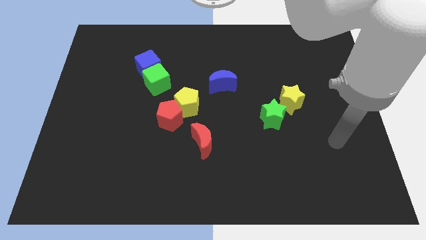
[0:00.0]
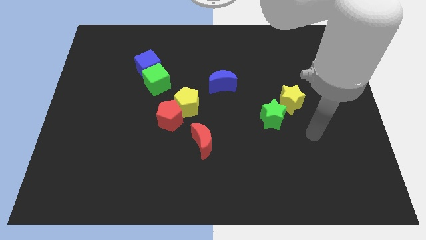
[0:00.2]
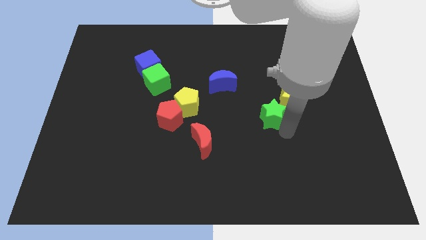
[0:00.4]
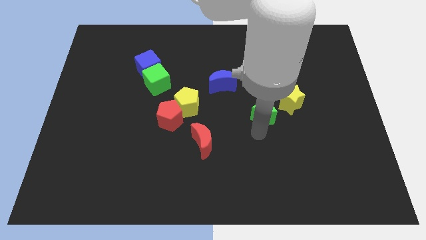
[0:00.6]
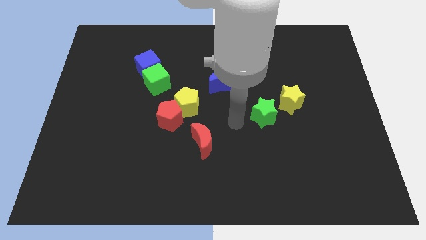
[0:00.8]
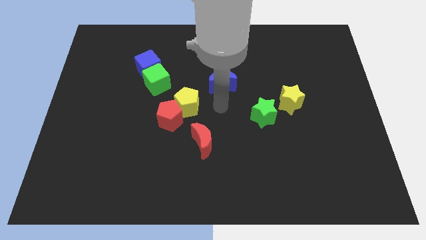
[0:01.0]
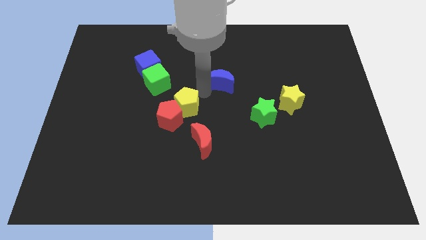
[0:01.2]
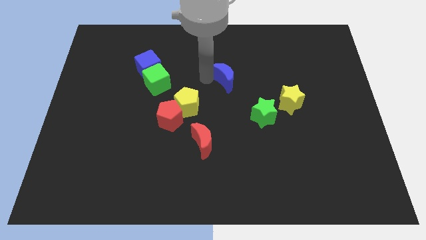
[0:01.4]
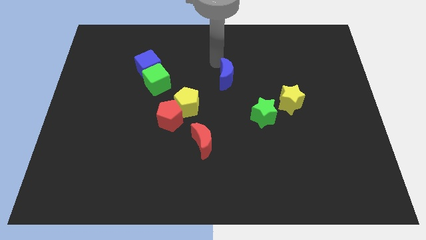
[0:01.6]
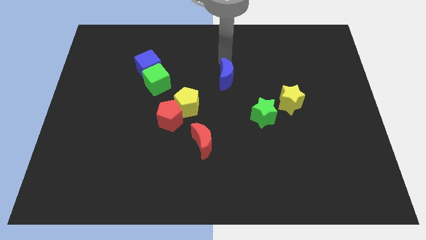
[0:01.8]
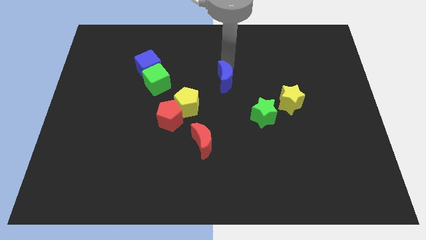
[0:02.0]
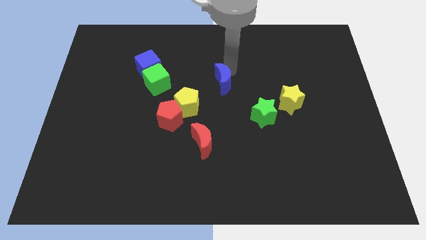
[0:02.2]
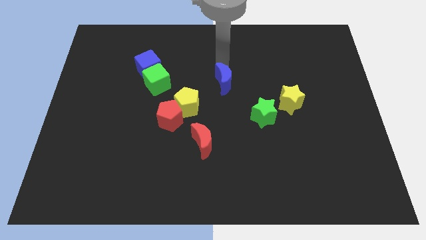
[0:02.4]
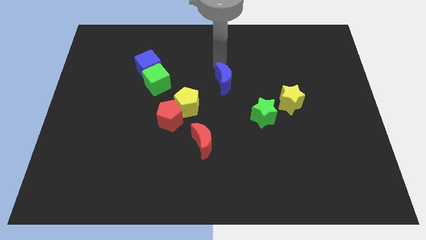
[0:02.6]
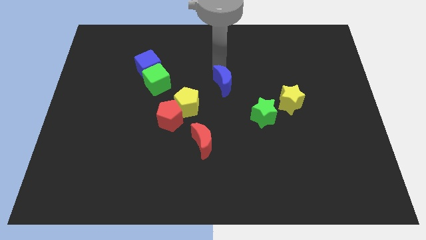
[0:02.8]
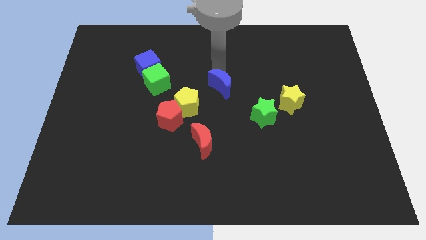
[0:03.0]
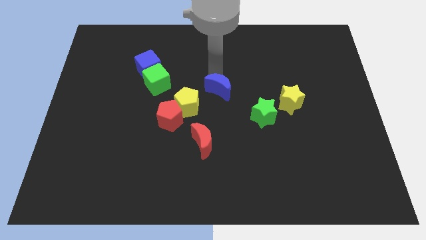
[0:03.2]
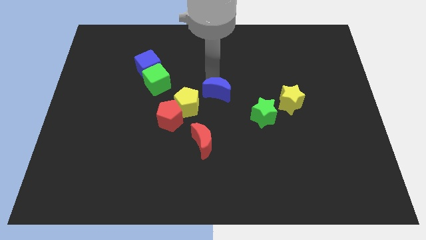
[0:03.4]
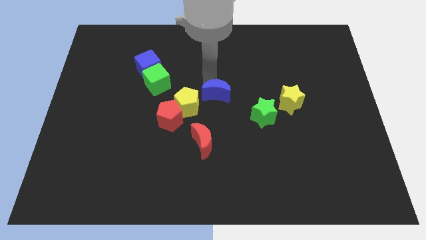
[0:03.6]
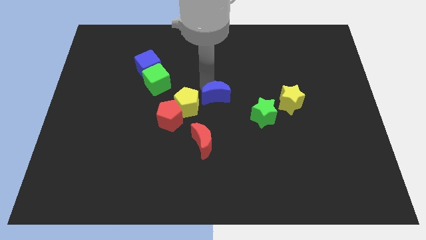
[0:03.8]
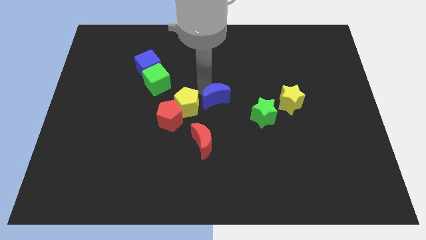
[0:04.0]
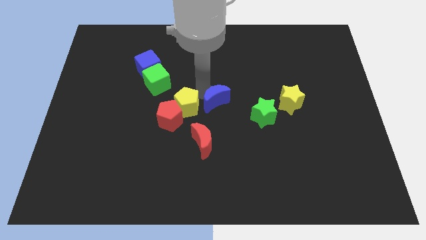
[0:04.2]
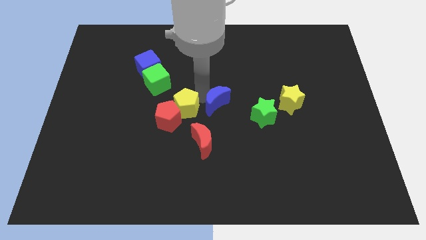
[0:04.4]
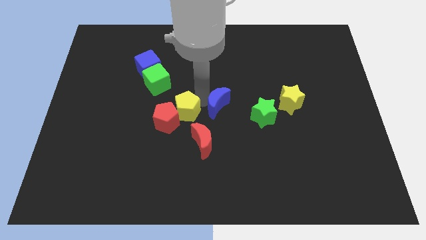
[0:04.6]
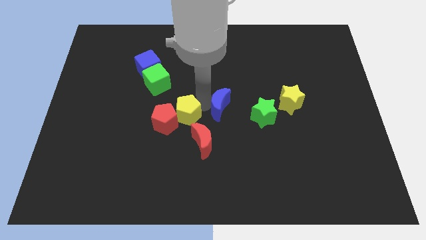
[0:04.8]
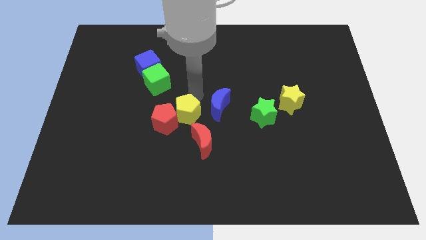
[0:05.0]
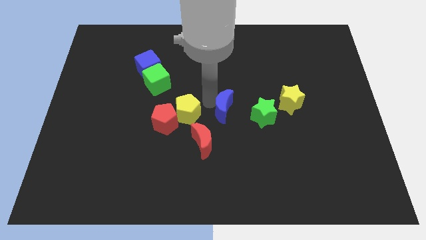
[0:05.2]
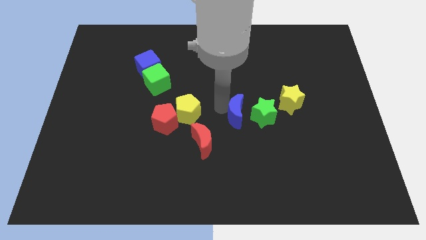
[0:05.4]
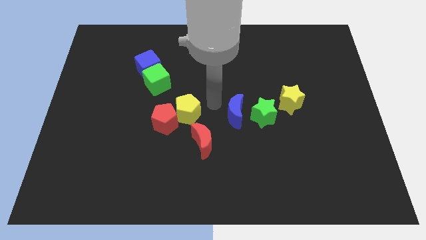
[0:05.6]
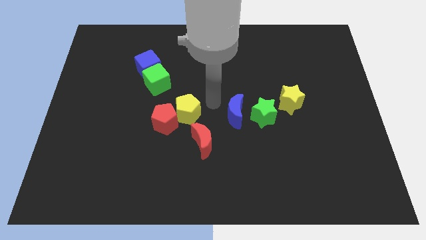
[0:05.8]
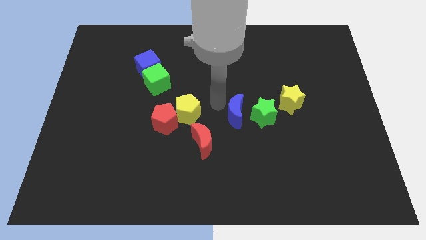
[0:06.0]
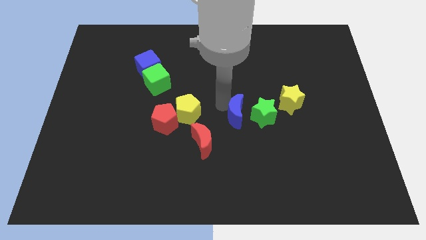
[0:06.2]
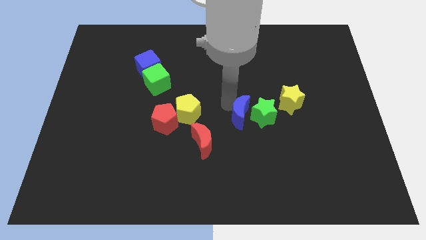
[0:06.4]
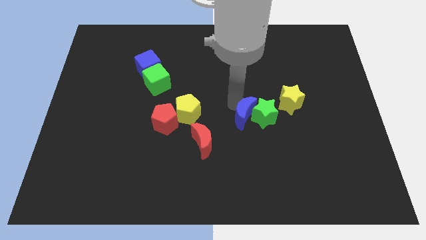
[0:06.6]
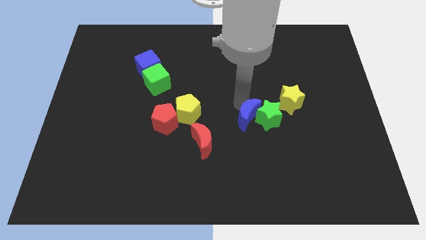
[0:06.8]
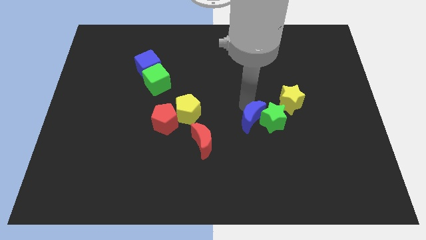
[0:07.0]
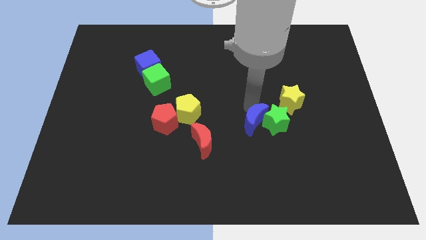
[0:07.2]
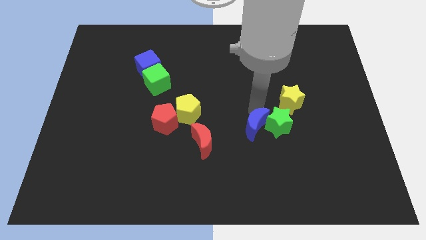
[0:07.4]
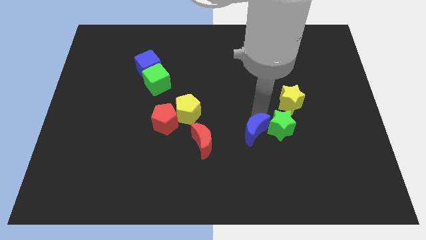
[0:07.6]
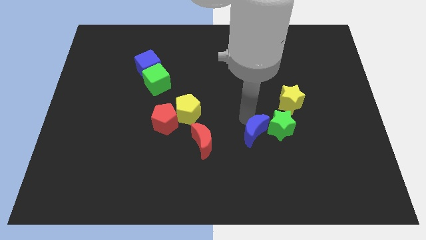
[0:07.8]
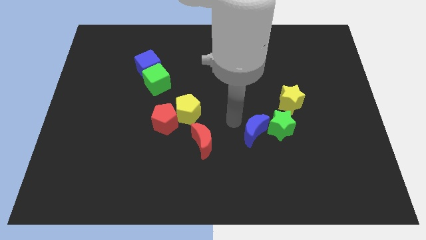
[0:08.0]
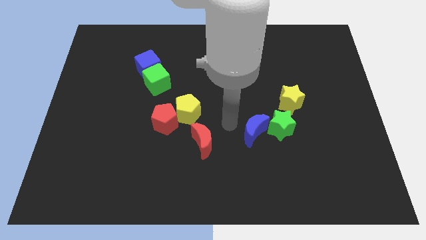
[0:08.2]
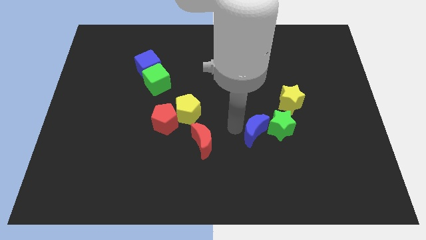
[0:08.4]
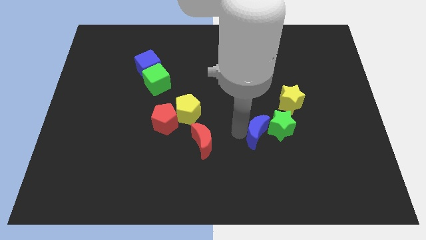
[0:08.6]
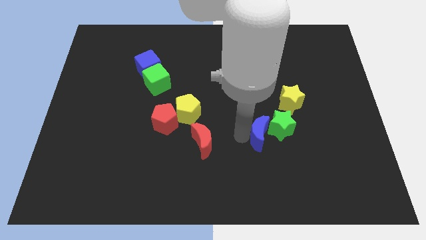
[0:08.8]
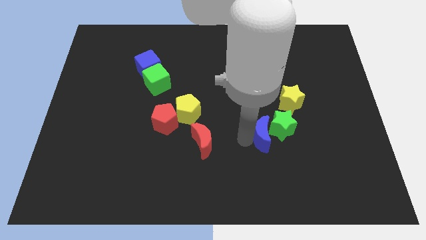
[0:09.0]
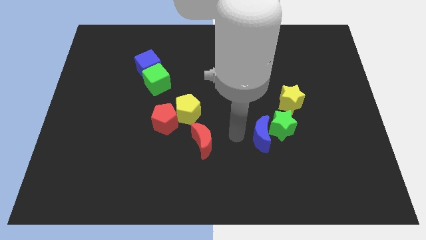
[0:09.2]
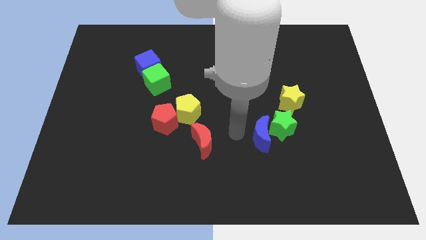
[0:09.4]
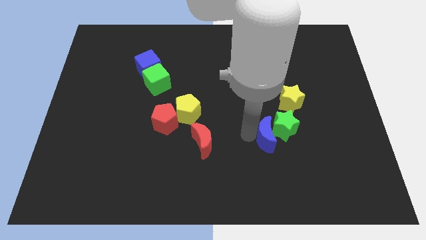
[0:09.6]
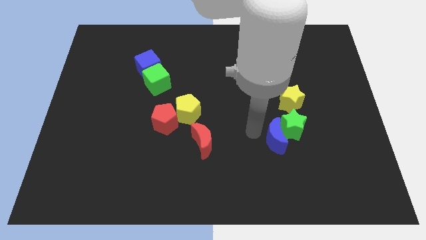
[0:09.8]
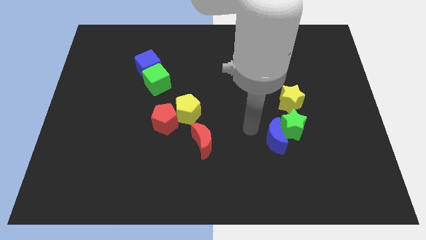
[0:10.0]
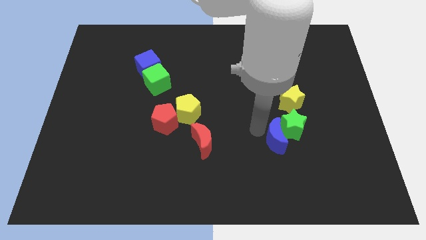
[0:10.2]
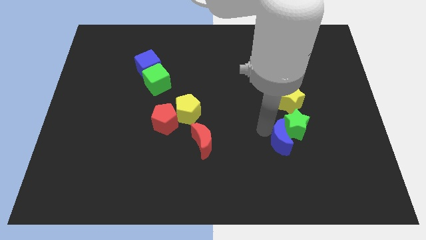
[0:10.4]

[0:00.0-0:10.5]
move the blue moon down and to the right

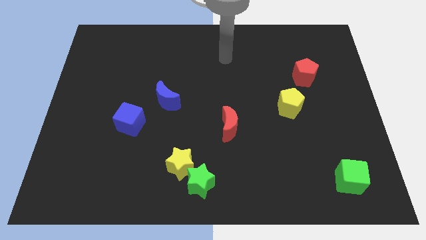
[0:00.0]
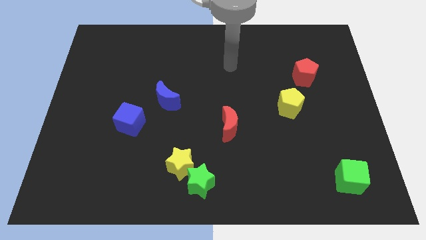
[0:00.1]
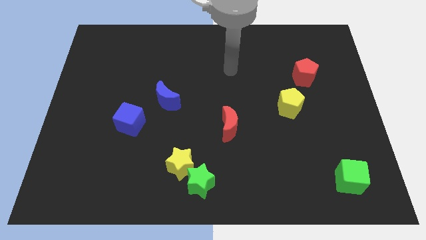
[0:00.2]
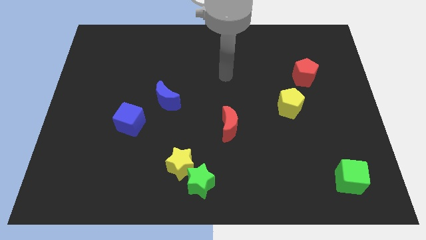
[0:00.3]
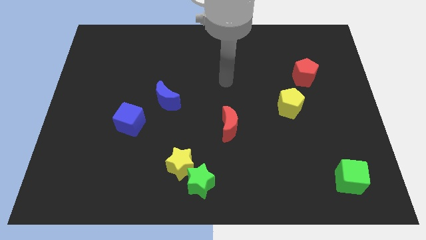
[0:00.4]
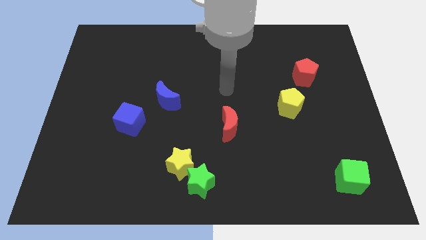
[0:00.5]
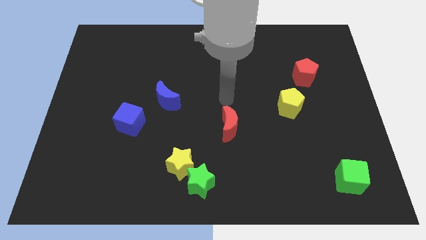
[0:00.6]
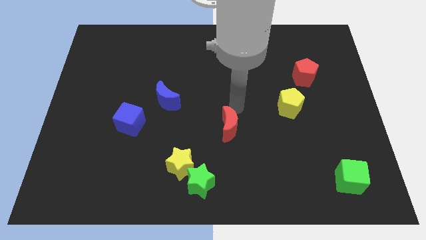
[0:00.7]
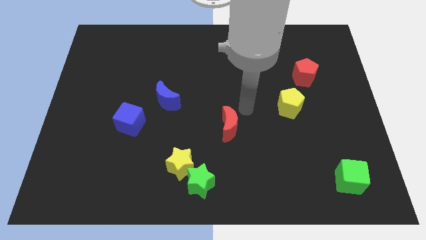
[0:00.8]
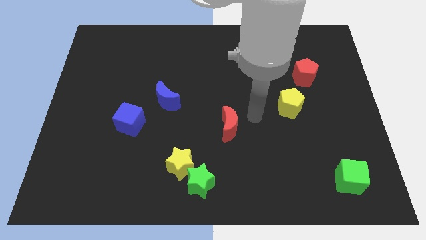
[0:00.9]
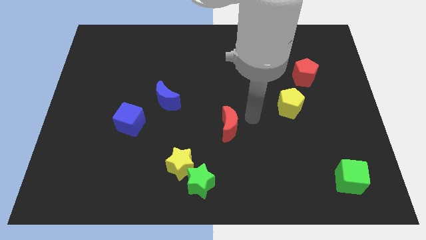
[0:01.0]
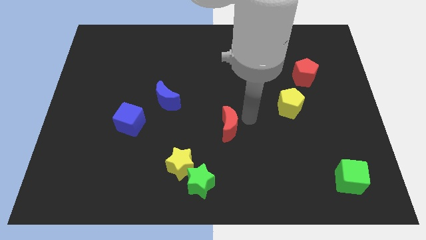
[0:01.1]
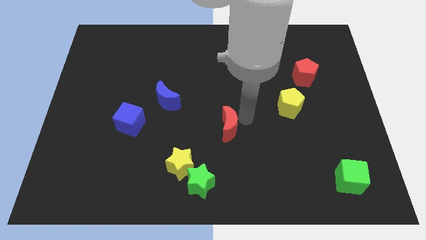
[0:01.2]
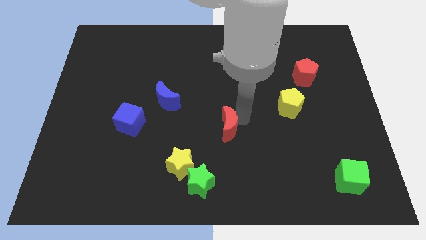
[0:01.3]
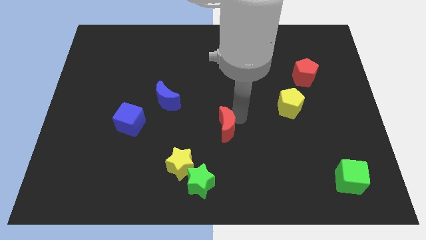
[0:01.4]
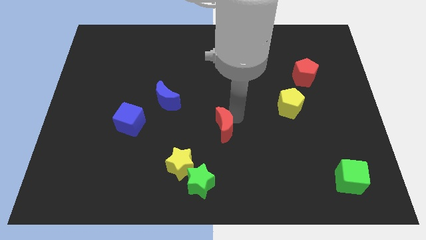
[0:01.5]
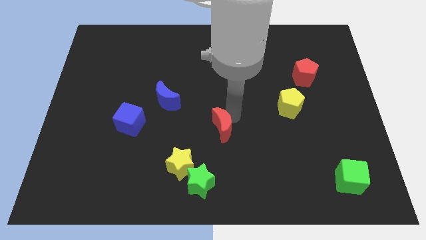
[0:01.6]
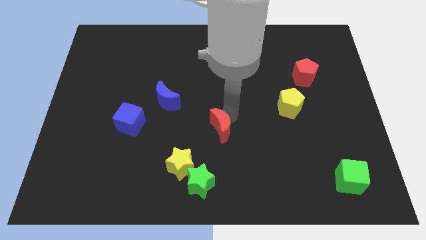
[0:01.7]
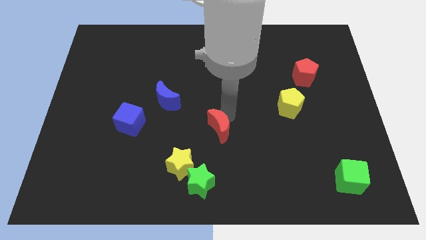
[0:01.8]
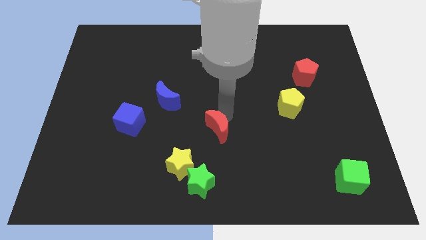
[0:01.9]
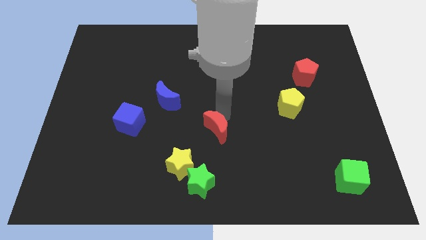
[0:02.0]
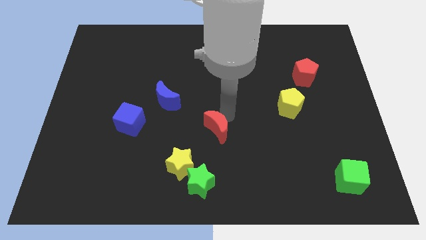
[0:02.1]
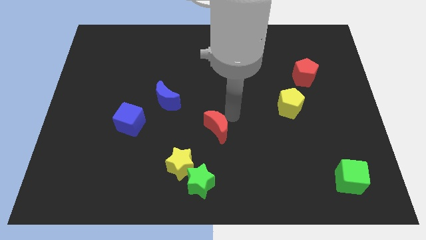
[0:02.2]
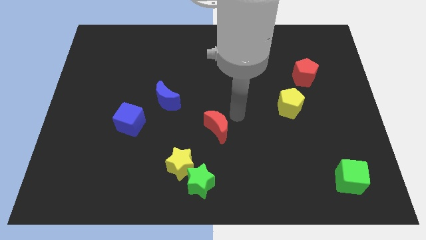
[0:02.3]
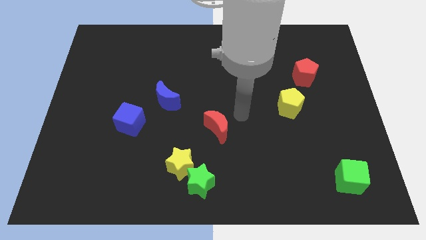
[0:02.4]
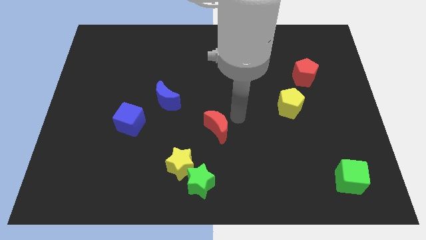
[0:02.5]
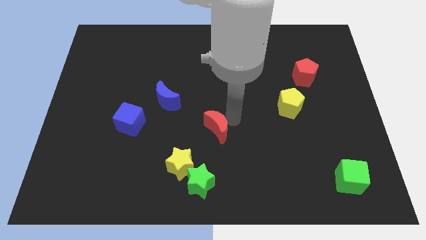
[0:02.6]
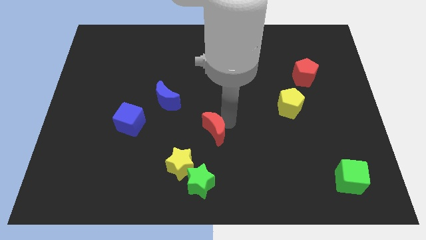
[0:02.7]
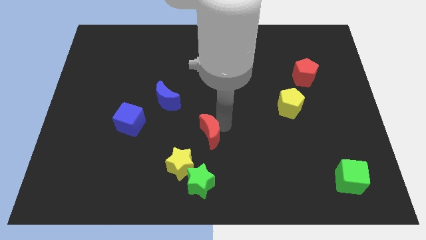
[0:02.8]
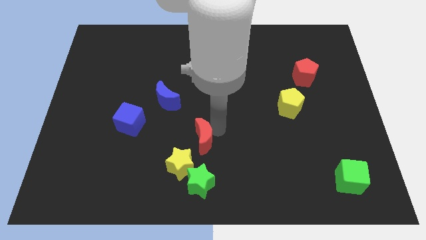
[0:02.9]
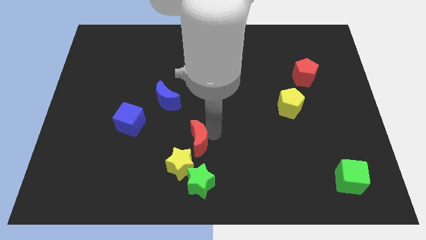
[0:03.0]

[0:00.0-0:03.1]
move the red moon a bit diagonally downwards and left
